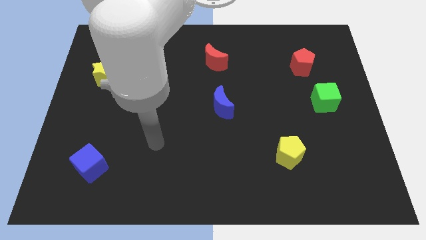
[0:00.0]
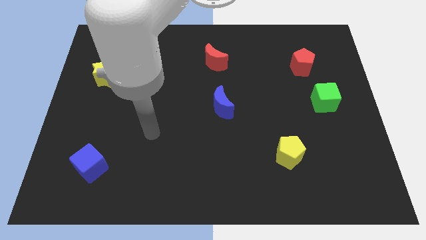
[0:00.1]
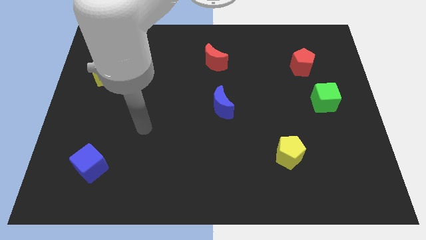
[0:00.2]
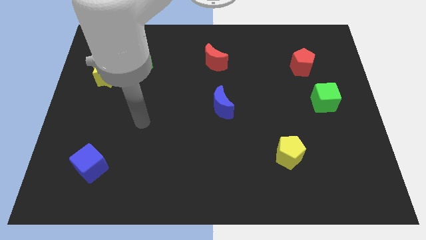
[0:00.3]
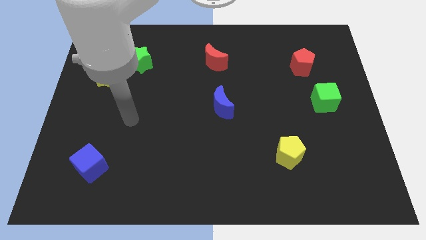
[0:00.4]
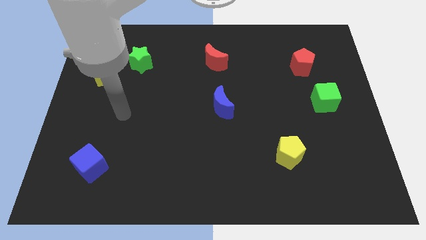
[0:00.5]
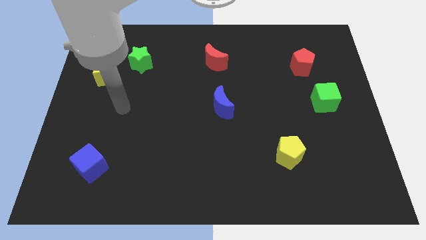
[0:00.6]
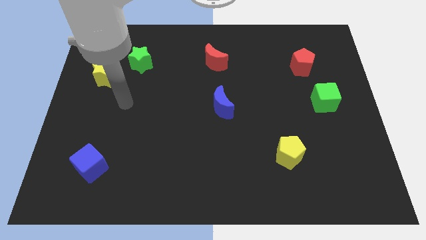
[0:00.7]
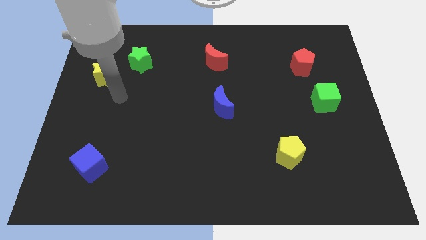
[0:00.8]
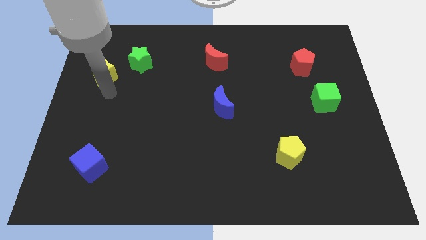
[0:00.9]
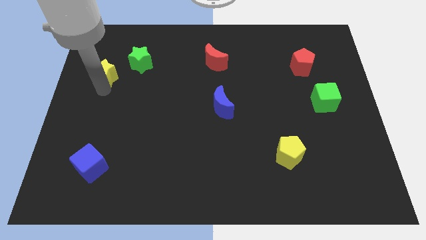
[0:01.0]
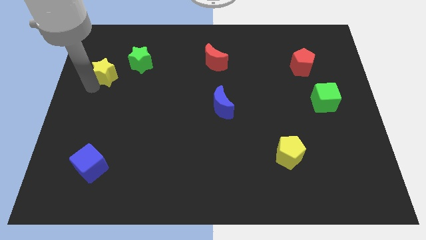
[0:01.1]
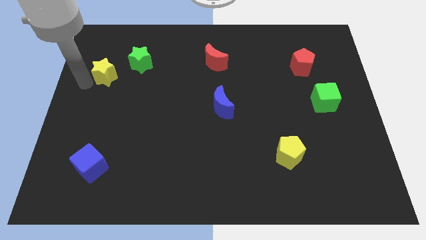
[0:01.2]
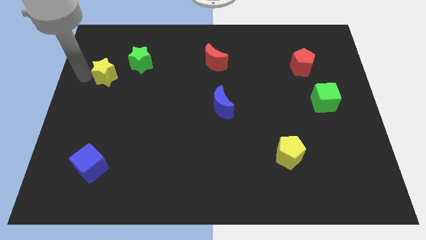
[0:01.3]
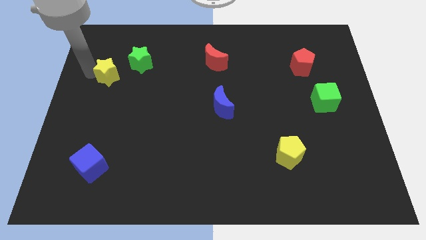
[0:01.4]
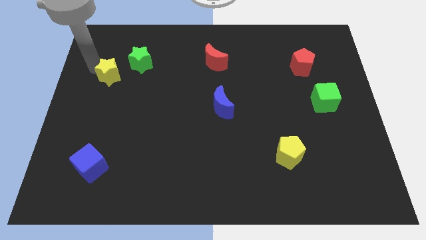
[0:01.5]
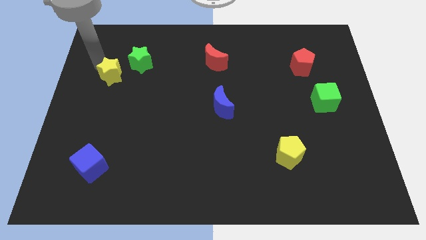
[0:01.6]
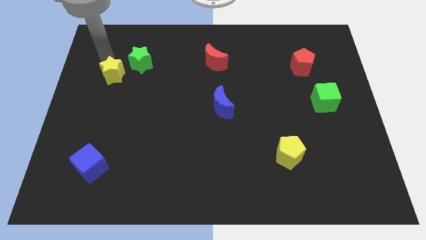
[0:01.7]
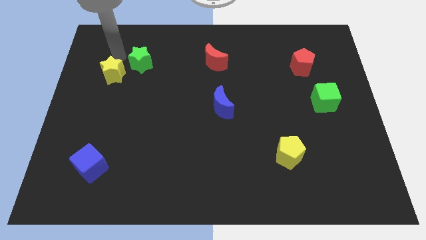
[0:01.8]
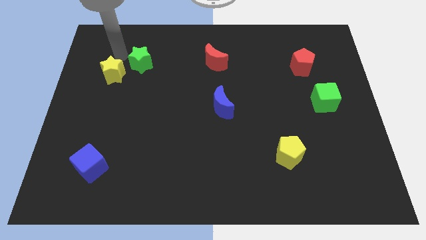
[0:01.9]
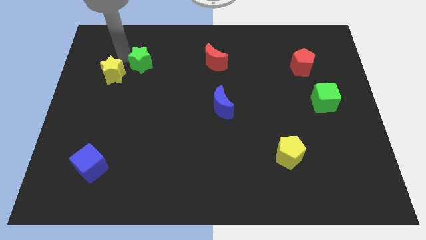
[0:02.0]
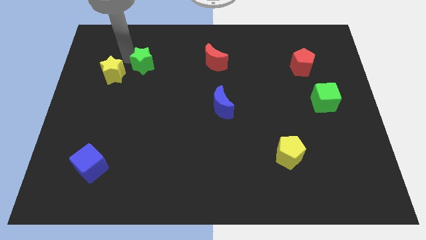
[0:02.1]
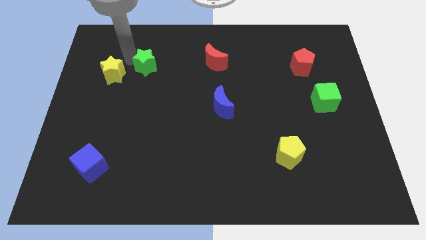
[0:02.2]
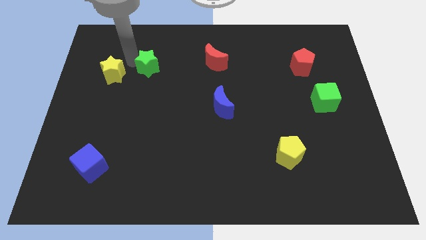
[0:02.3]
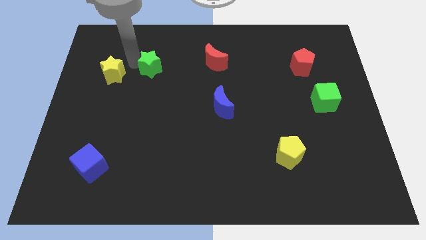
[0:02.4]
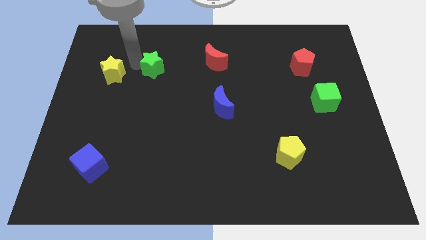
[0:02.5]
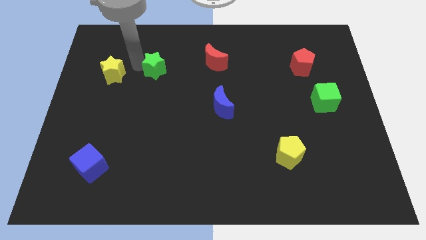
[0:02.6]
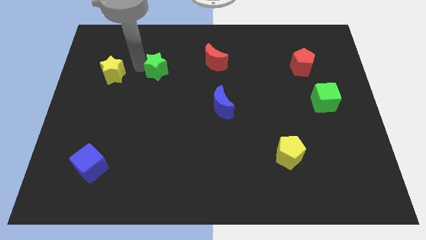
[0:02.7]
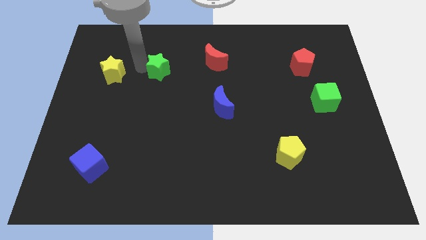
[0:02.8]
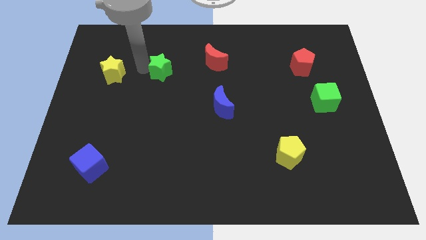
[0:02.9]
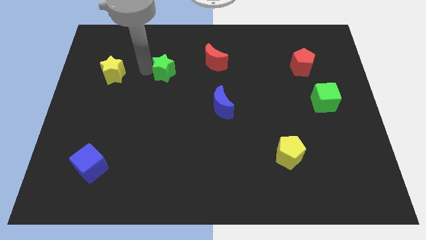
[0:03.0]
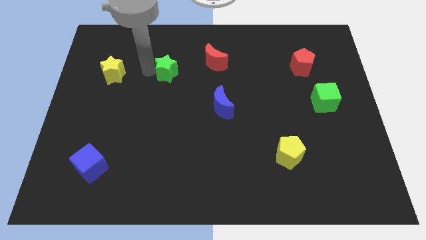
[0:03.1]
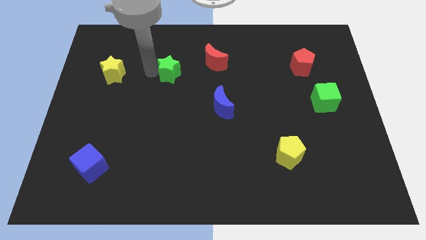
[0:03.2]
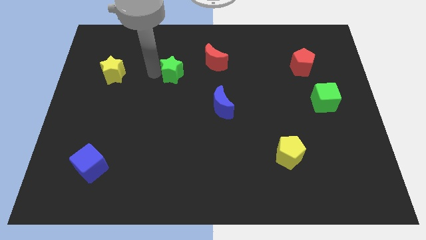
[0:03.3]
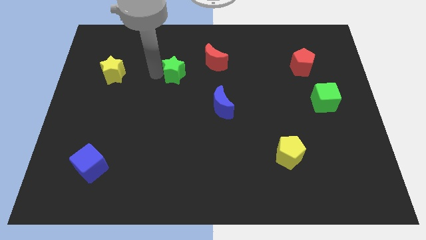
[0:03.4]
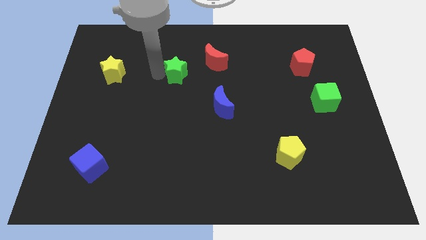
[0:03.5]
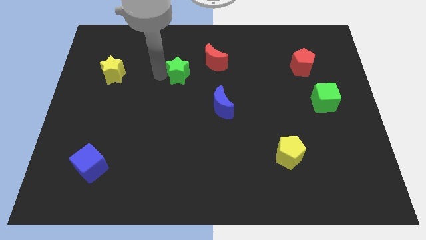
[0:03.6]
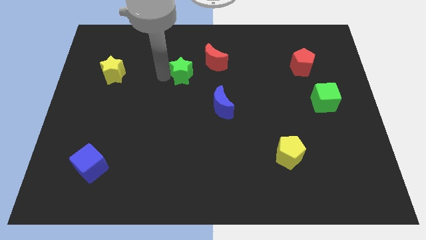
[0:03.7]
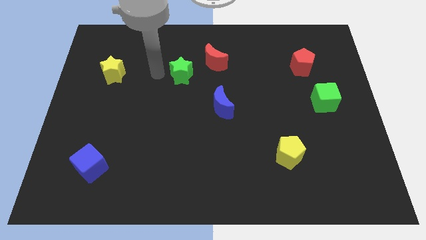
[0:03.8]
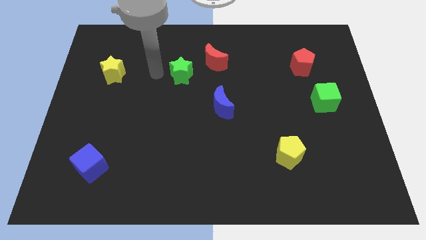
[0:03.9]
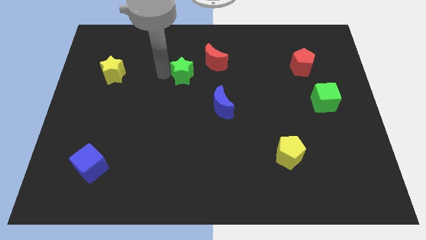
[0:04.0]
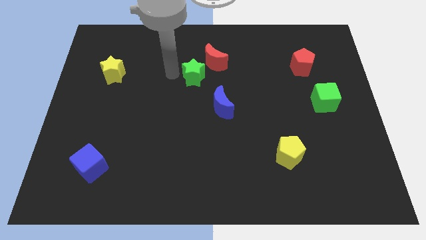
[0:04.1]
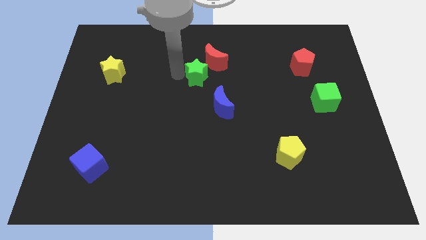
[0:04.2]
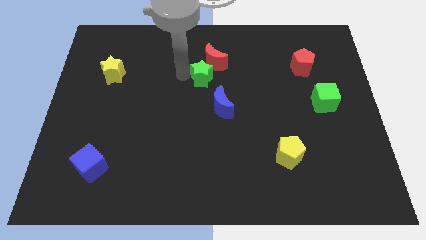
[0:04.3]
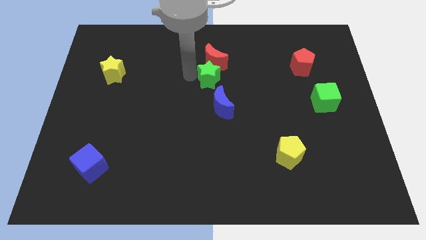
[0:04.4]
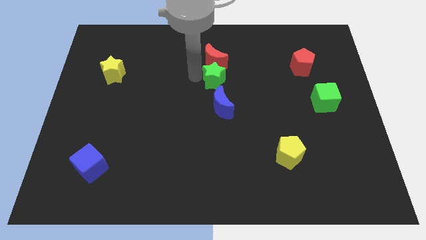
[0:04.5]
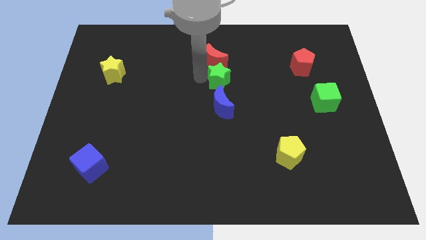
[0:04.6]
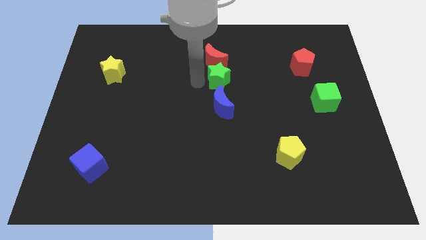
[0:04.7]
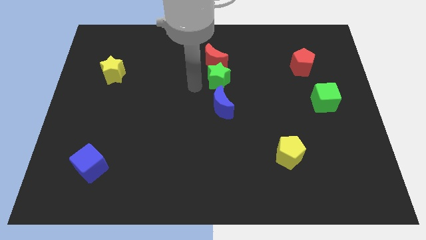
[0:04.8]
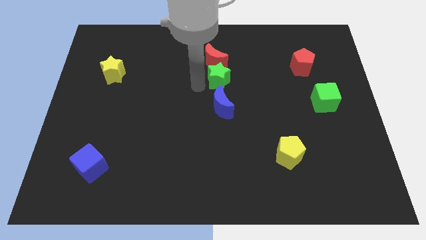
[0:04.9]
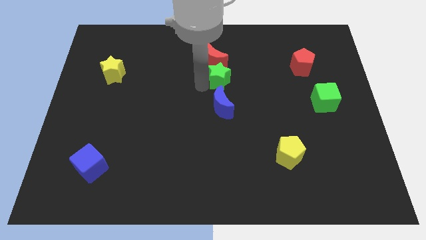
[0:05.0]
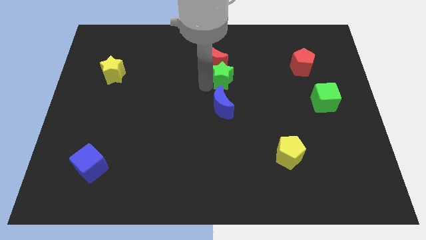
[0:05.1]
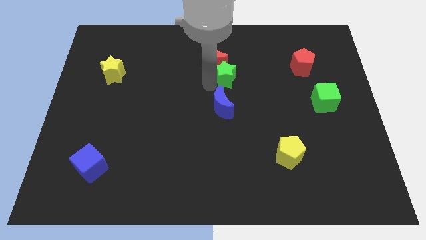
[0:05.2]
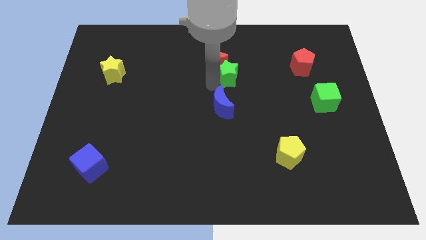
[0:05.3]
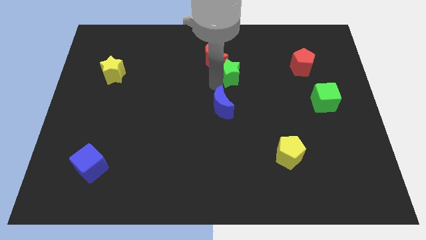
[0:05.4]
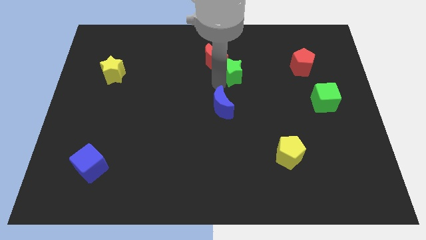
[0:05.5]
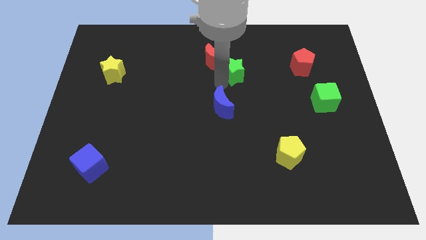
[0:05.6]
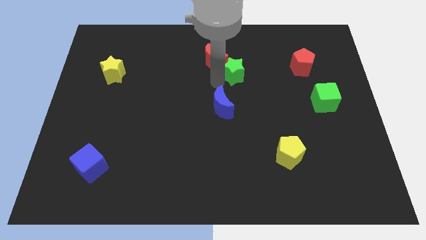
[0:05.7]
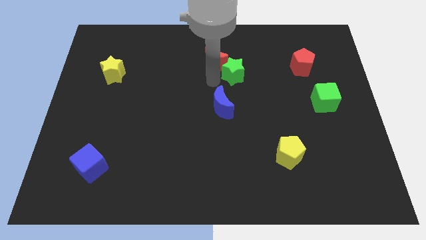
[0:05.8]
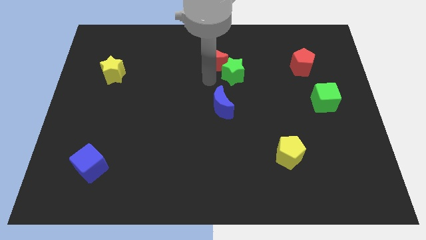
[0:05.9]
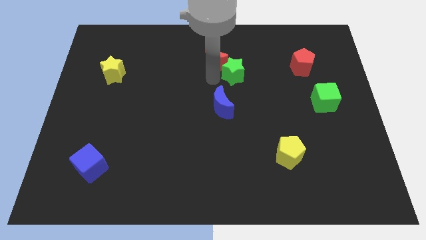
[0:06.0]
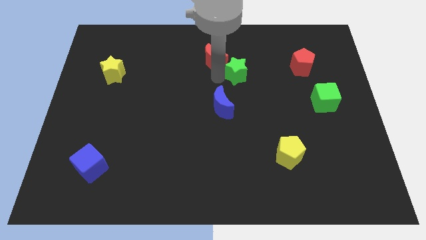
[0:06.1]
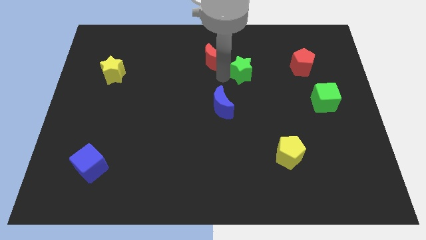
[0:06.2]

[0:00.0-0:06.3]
move the green star to the left side of the red pentagon
